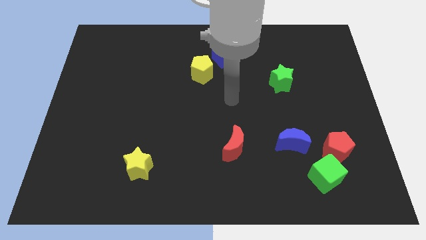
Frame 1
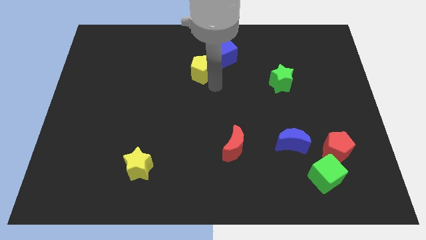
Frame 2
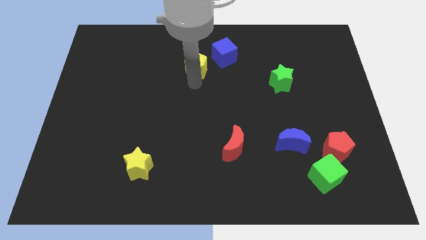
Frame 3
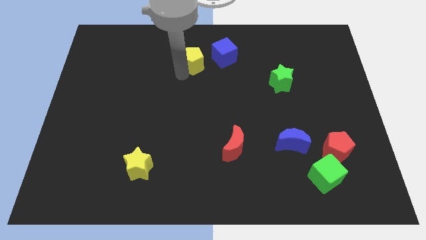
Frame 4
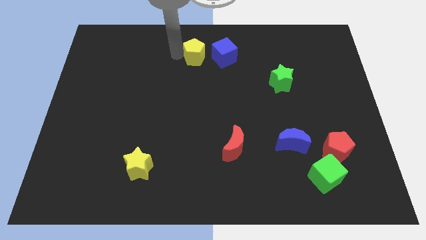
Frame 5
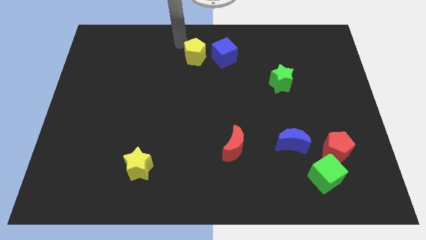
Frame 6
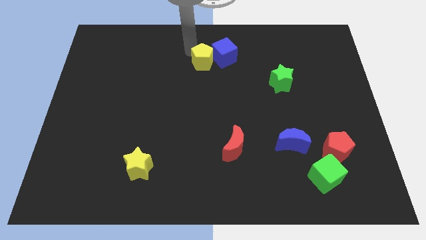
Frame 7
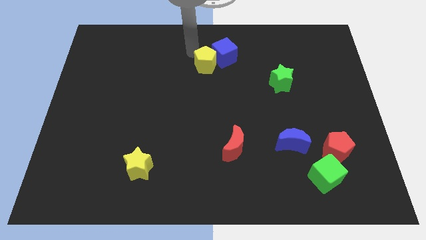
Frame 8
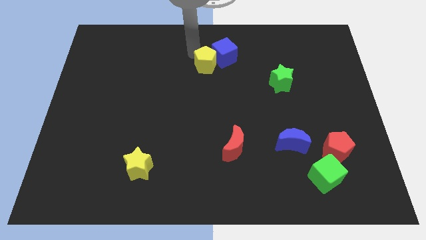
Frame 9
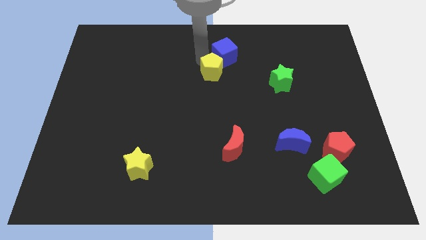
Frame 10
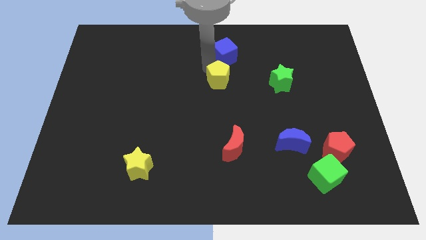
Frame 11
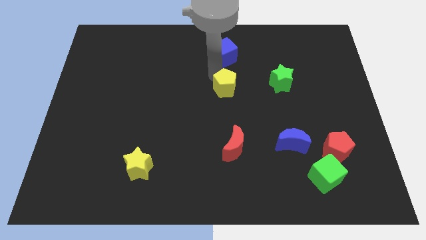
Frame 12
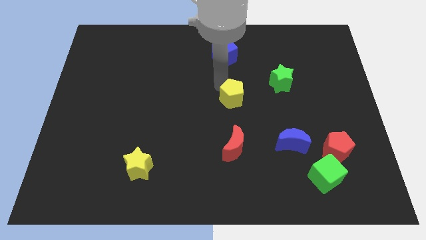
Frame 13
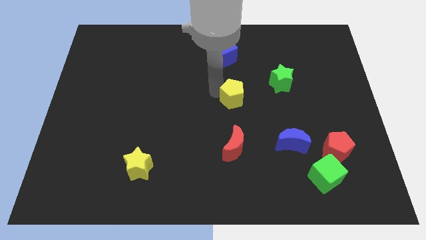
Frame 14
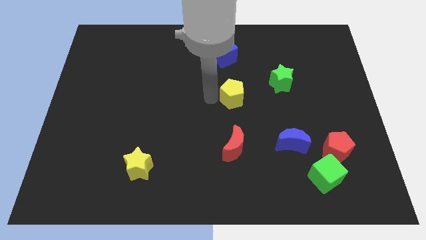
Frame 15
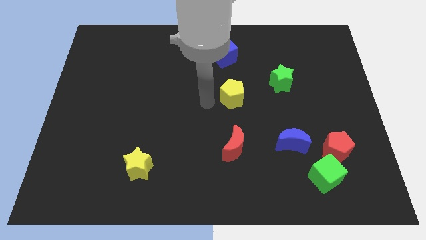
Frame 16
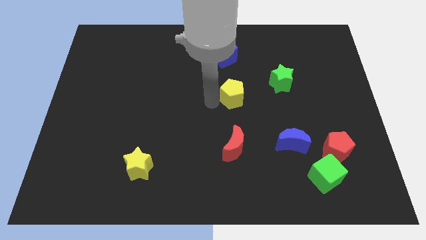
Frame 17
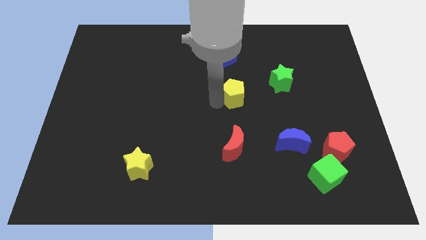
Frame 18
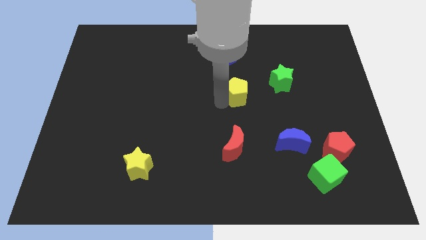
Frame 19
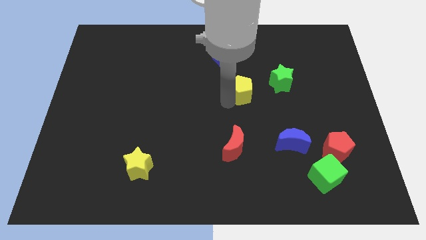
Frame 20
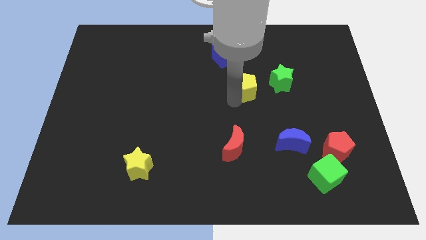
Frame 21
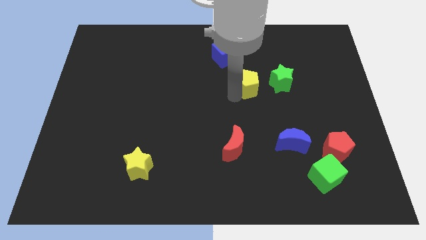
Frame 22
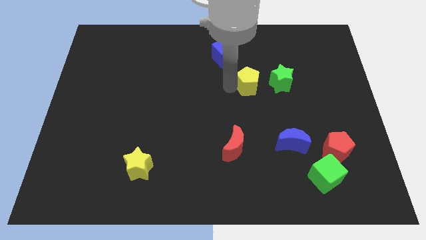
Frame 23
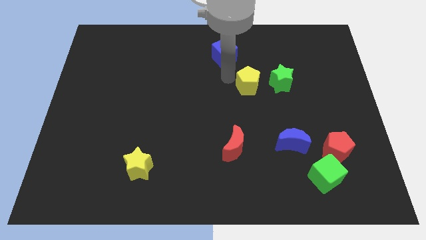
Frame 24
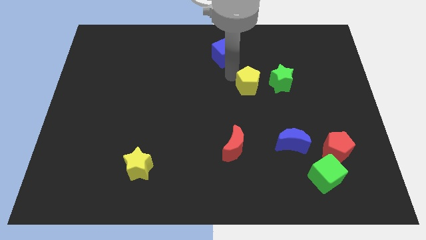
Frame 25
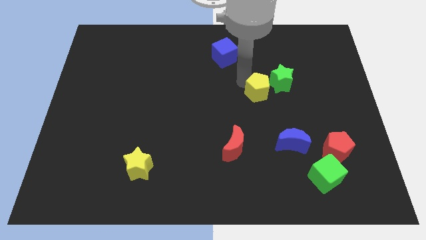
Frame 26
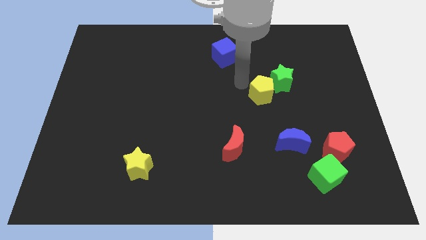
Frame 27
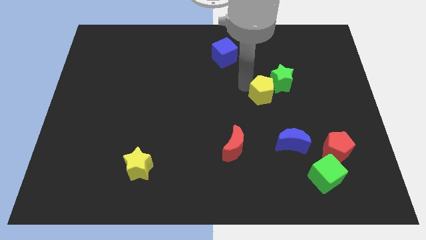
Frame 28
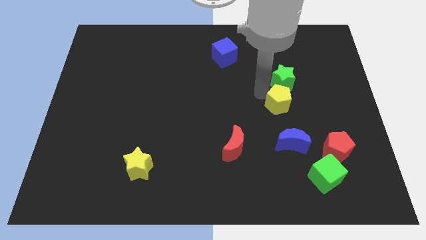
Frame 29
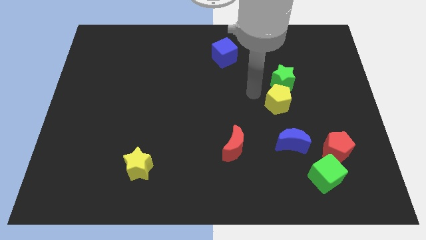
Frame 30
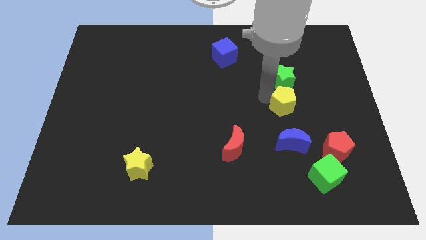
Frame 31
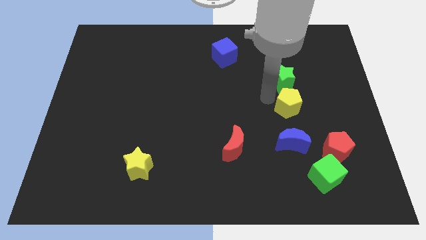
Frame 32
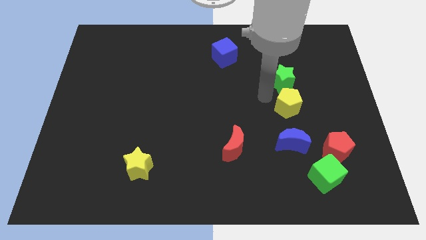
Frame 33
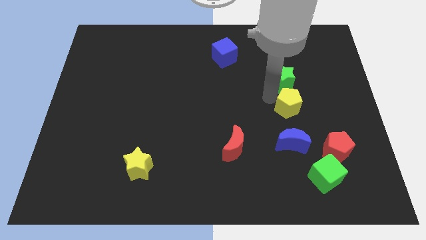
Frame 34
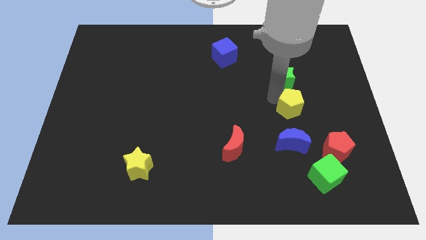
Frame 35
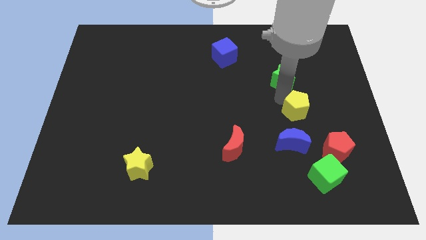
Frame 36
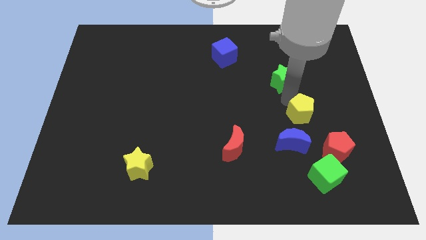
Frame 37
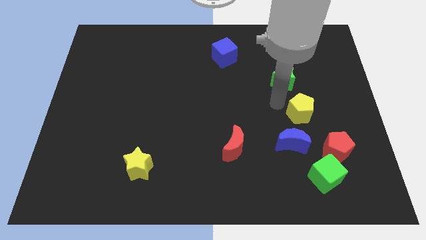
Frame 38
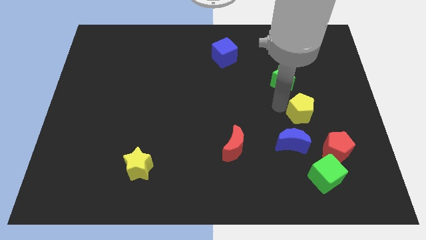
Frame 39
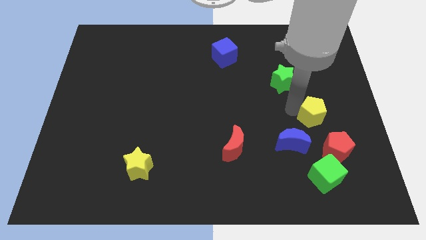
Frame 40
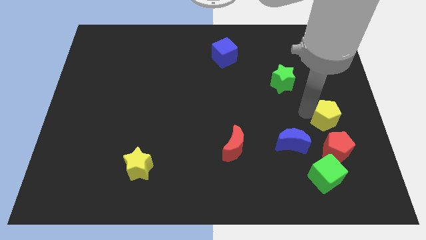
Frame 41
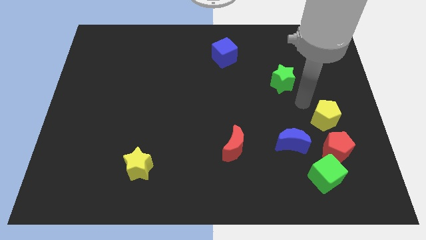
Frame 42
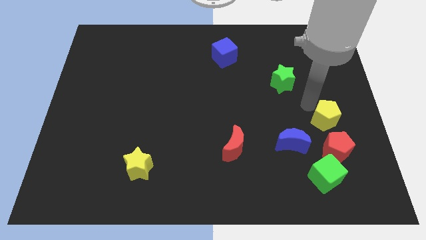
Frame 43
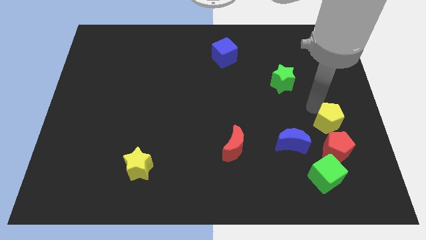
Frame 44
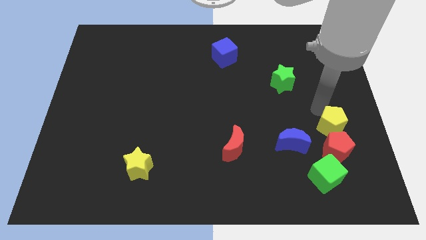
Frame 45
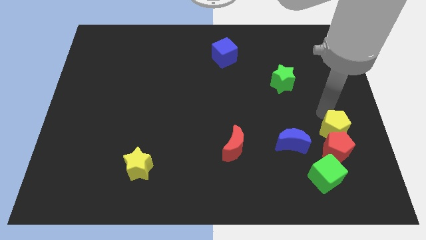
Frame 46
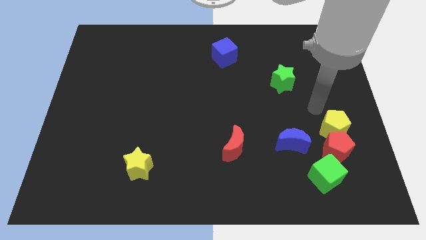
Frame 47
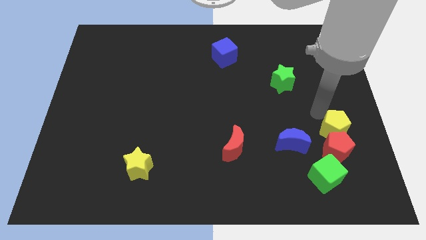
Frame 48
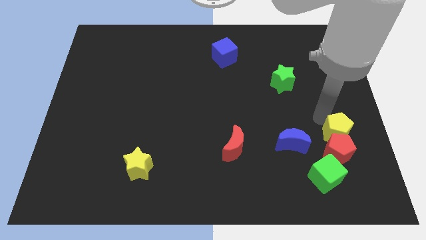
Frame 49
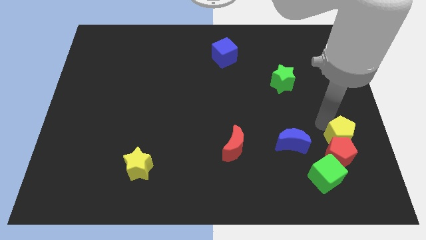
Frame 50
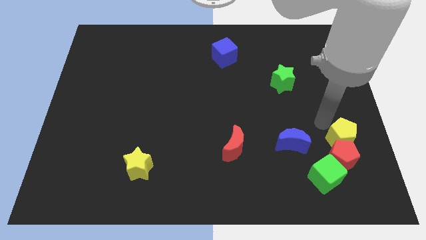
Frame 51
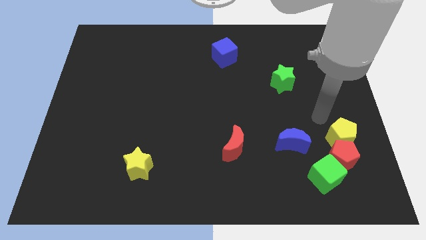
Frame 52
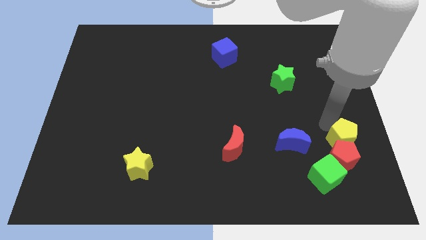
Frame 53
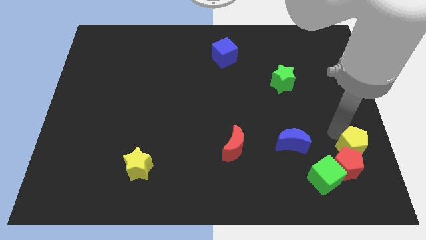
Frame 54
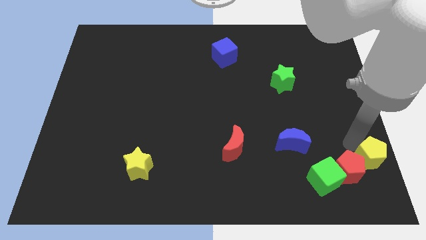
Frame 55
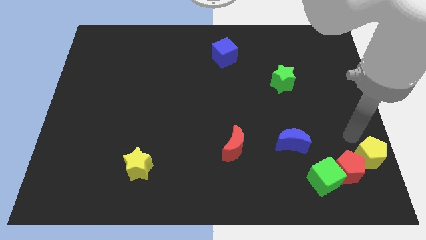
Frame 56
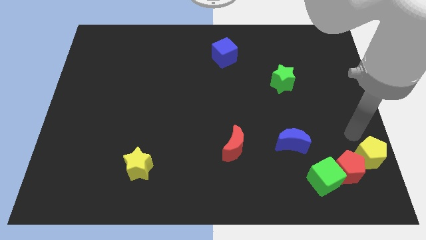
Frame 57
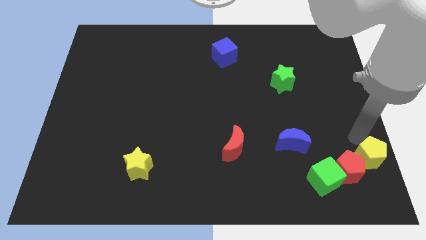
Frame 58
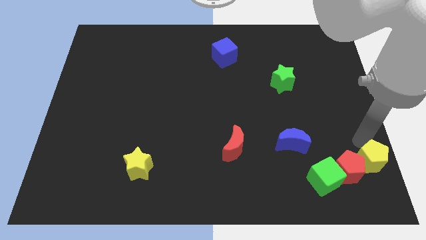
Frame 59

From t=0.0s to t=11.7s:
move the yellow pentagon to the bottom right of the board

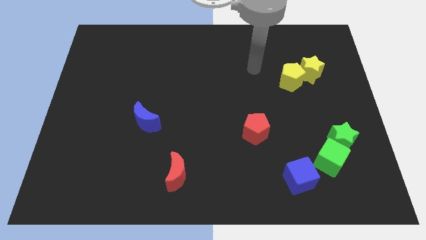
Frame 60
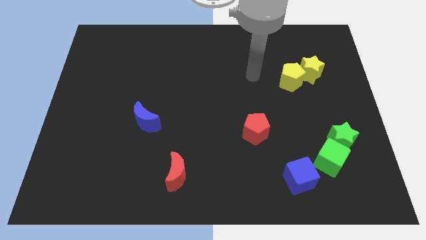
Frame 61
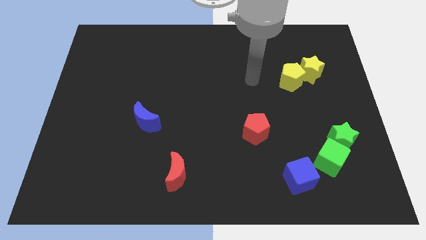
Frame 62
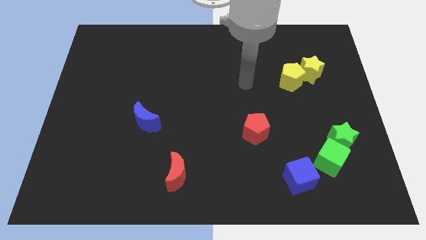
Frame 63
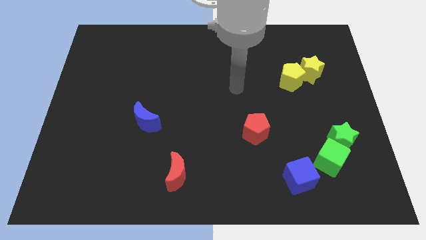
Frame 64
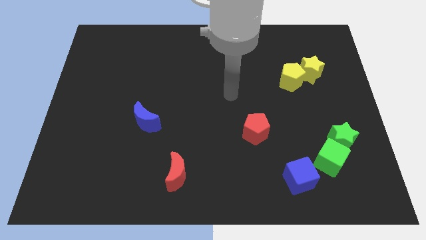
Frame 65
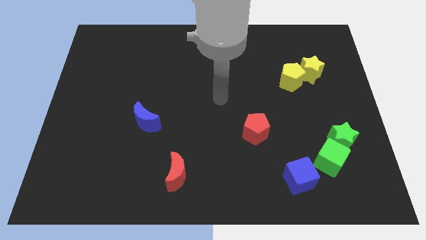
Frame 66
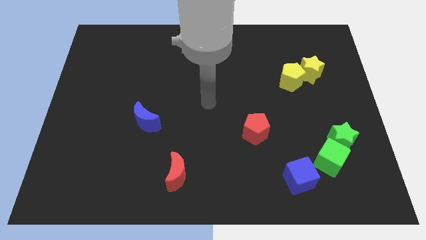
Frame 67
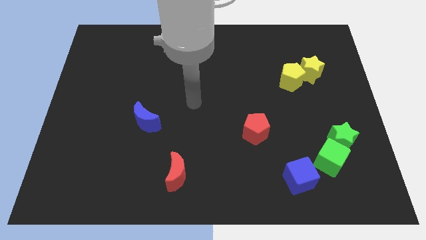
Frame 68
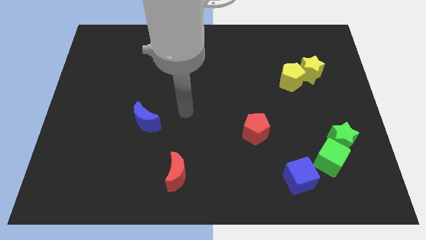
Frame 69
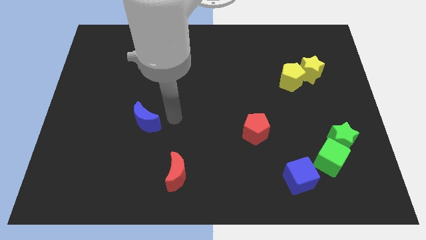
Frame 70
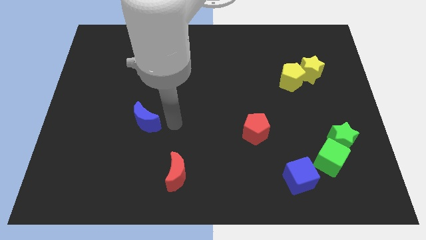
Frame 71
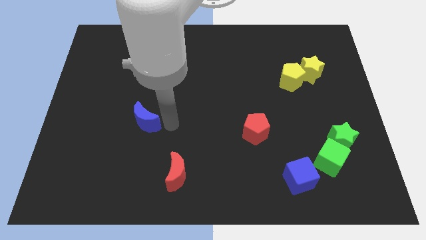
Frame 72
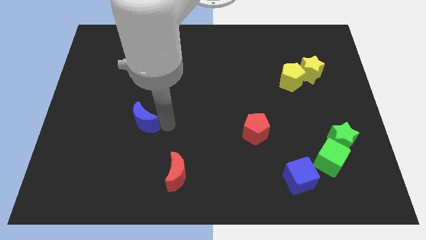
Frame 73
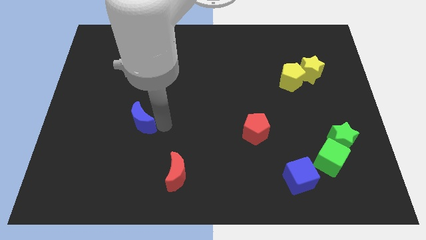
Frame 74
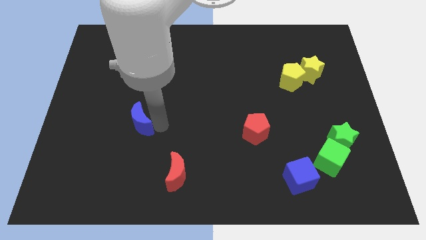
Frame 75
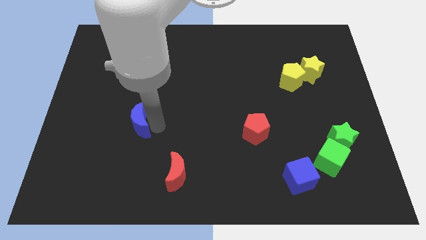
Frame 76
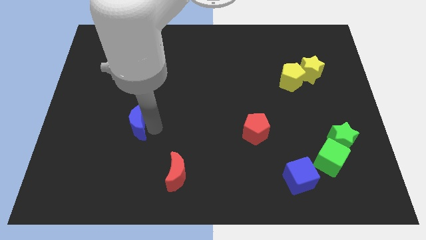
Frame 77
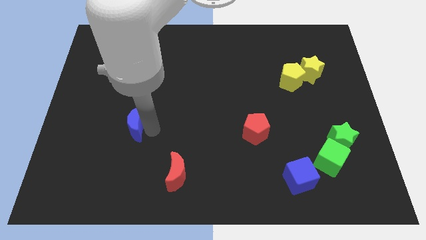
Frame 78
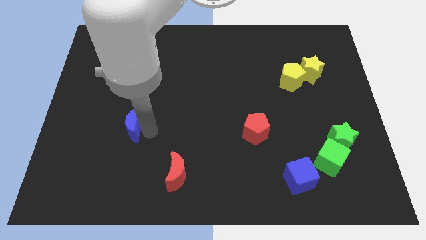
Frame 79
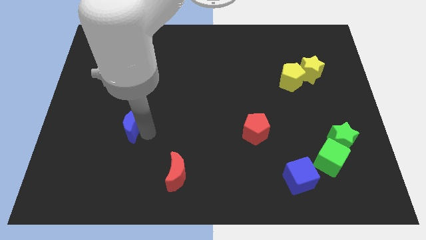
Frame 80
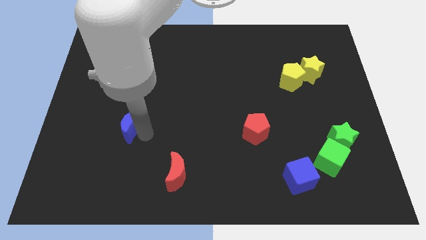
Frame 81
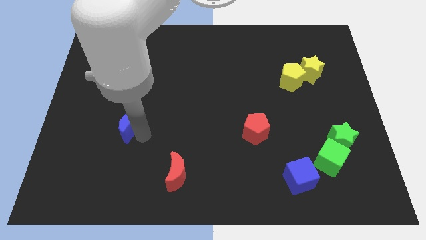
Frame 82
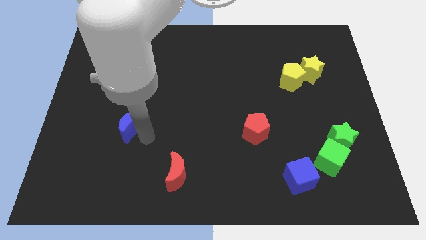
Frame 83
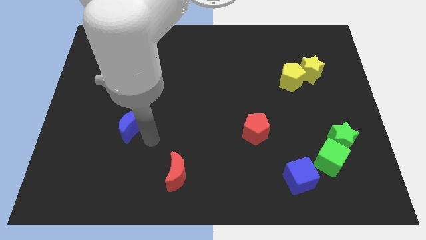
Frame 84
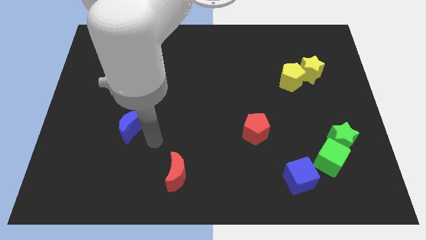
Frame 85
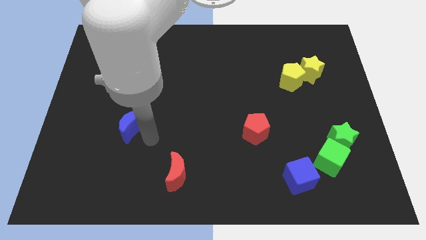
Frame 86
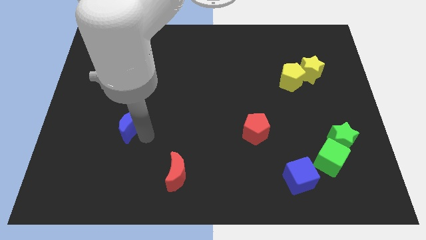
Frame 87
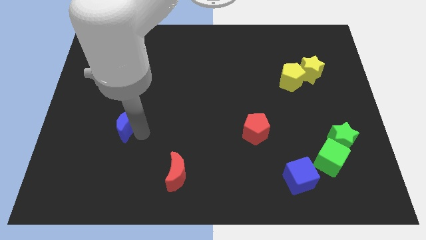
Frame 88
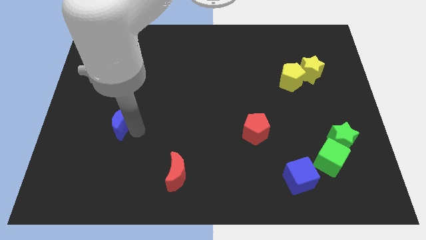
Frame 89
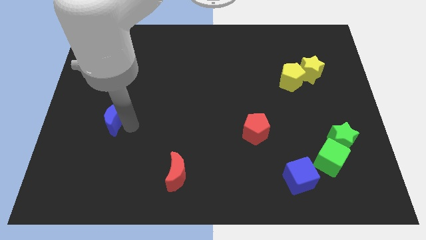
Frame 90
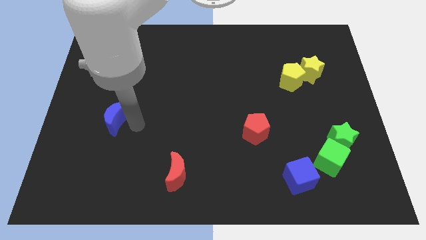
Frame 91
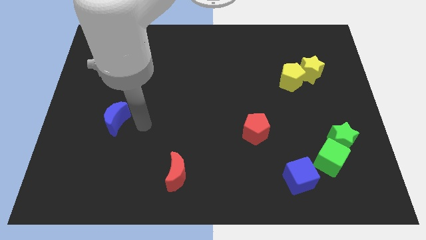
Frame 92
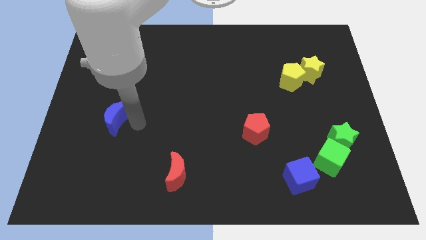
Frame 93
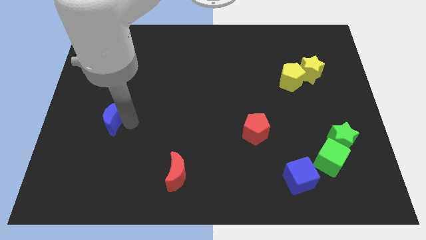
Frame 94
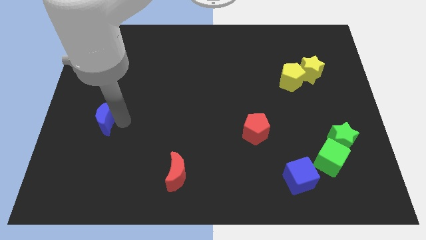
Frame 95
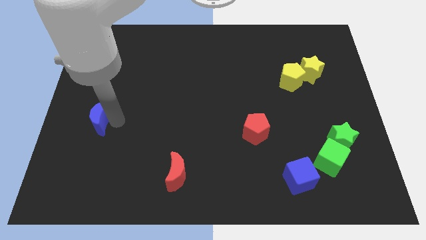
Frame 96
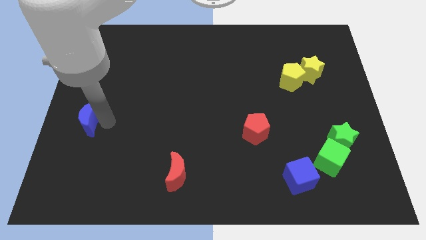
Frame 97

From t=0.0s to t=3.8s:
move the blue moon to the left side
